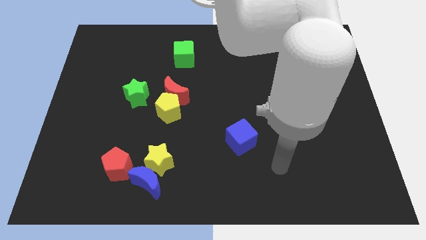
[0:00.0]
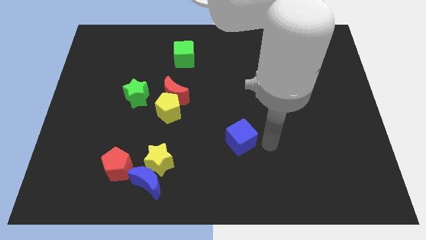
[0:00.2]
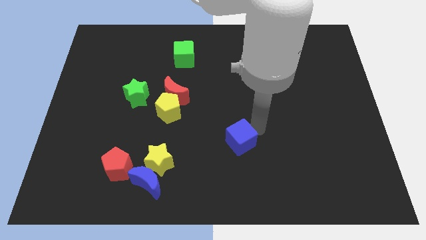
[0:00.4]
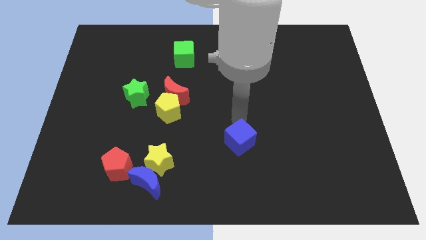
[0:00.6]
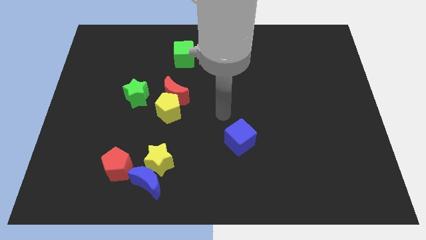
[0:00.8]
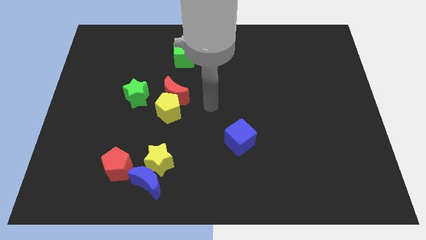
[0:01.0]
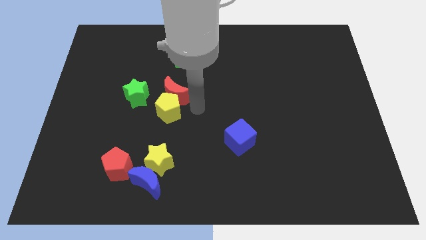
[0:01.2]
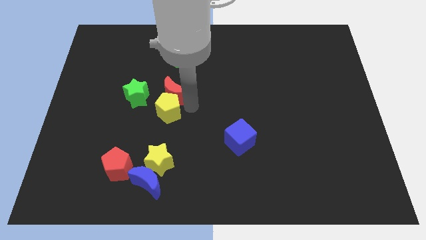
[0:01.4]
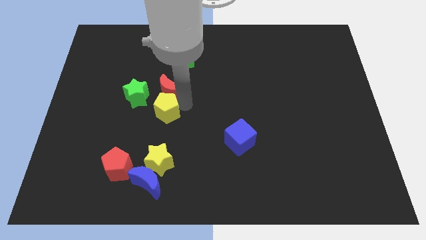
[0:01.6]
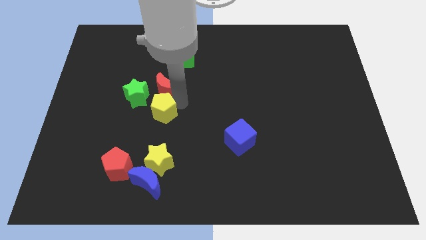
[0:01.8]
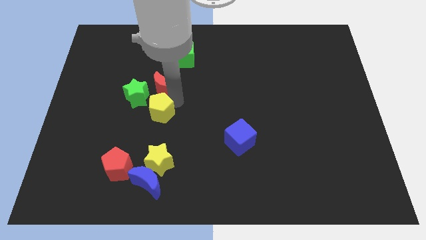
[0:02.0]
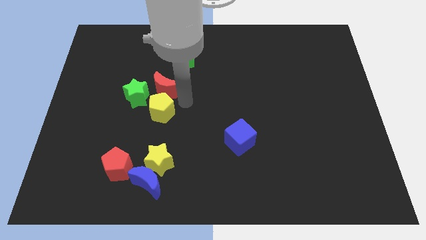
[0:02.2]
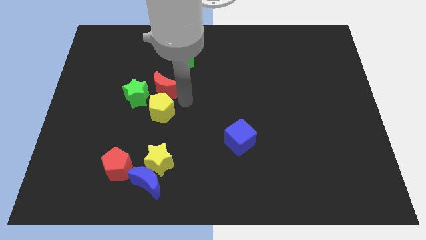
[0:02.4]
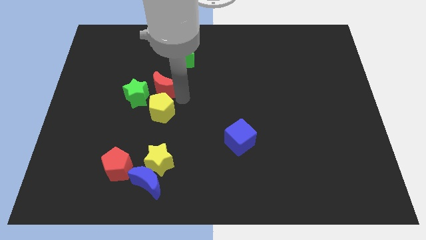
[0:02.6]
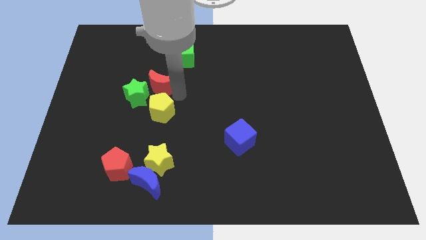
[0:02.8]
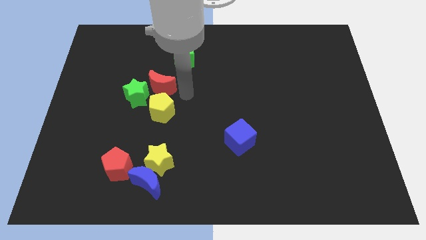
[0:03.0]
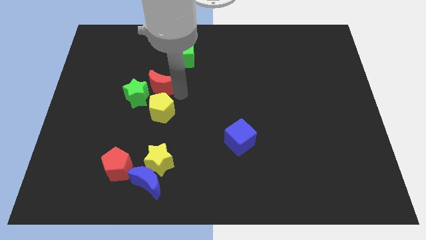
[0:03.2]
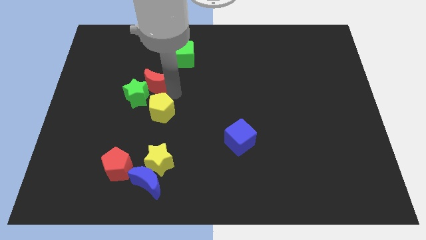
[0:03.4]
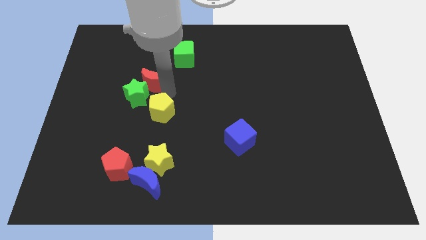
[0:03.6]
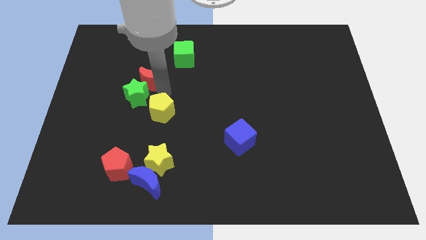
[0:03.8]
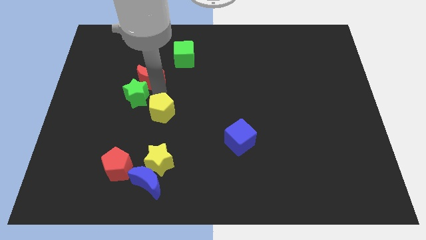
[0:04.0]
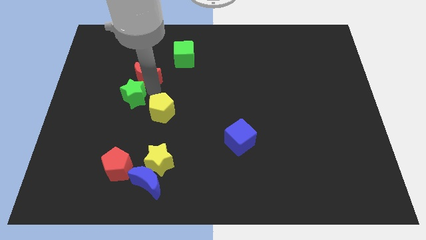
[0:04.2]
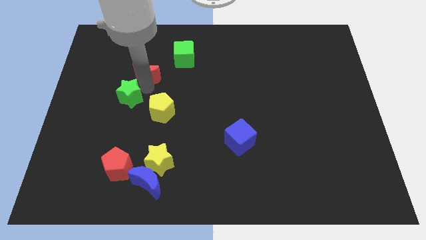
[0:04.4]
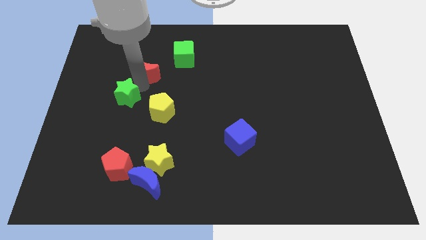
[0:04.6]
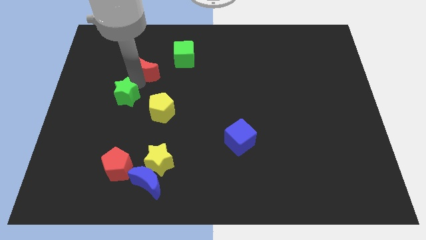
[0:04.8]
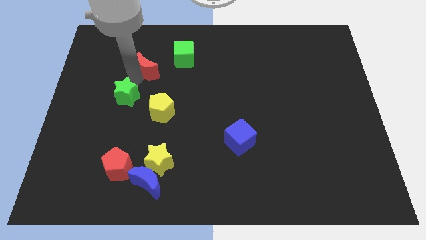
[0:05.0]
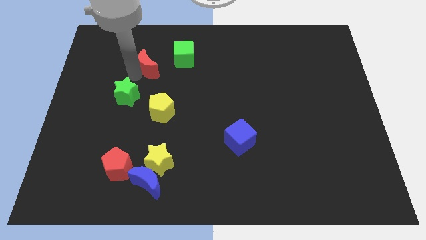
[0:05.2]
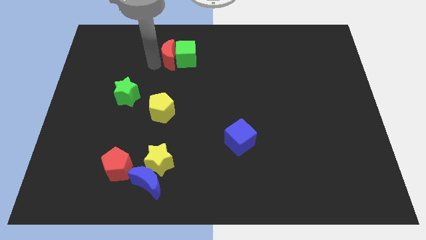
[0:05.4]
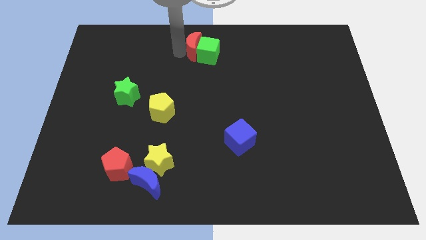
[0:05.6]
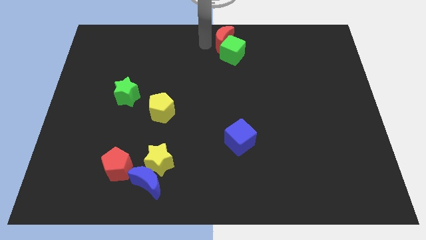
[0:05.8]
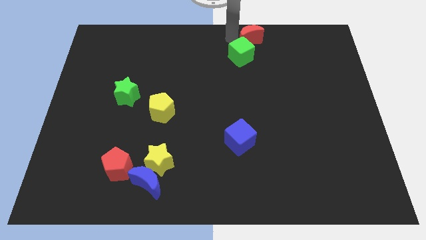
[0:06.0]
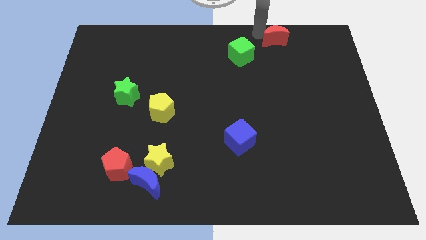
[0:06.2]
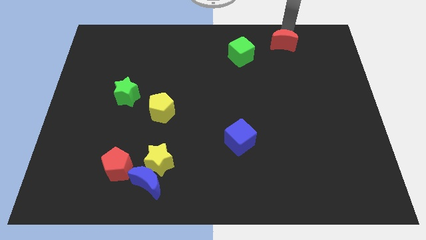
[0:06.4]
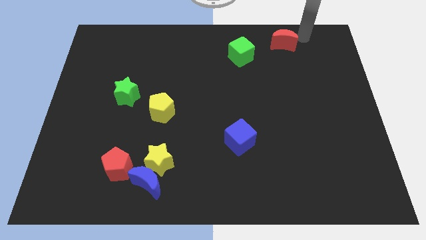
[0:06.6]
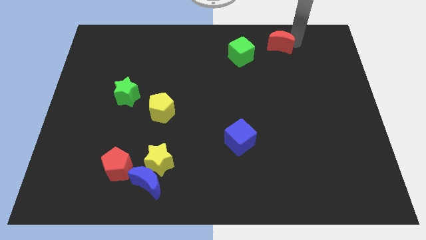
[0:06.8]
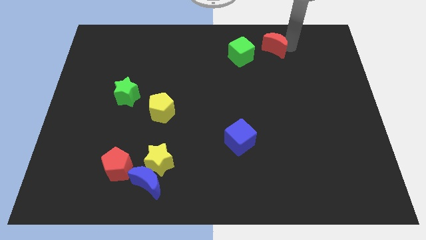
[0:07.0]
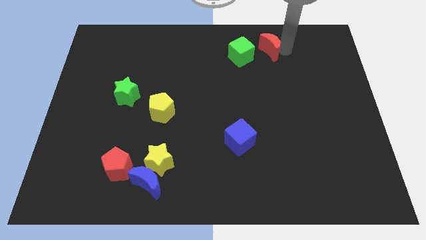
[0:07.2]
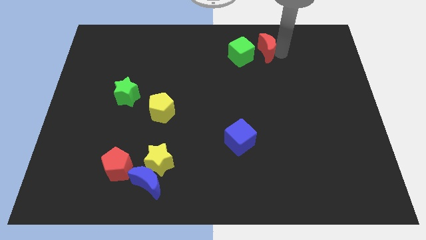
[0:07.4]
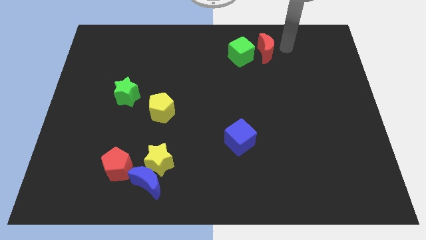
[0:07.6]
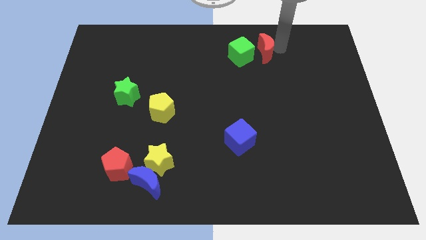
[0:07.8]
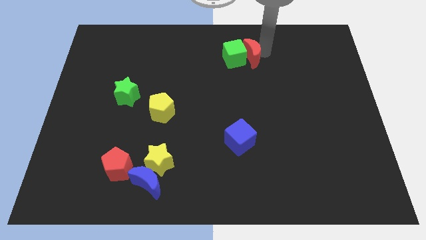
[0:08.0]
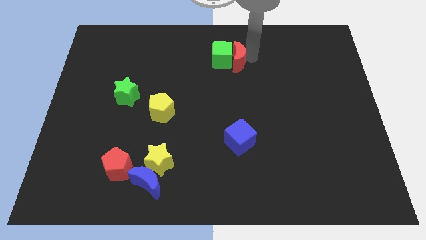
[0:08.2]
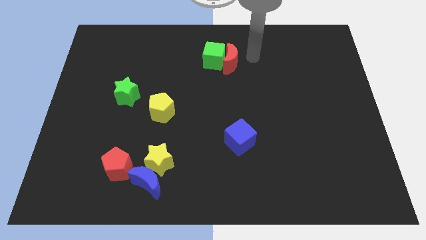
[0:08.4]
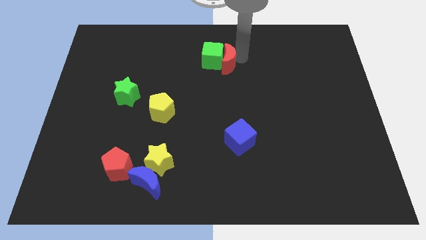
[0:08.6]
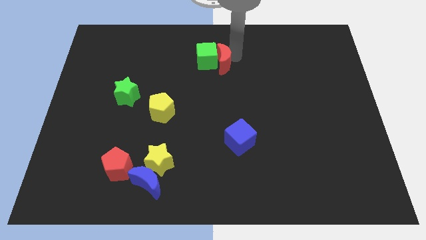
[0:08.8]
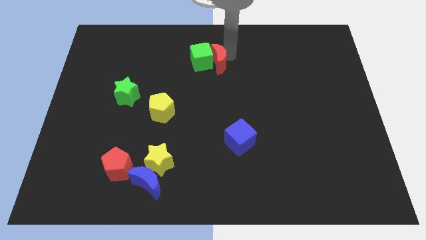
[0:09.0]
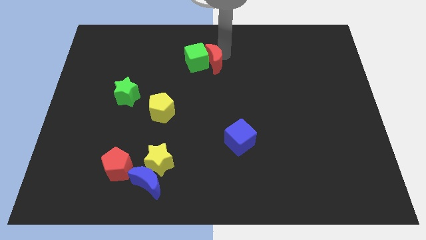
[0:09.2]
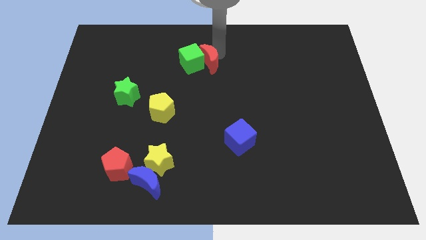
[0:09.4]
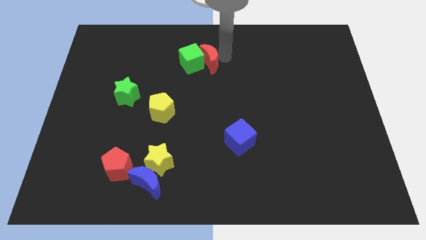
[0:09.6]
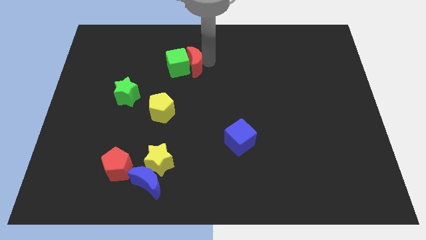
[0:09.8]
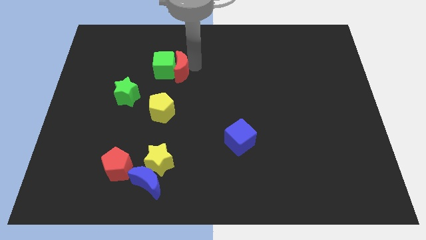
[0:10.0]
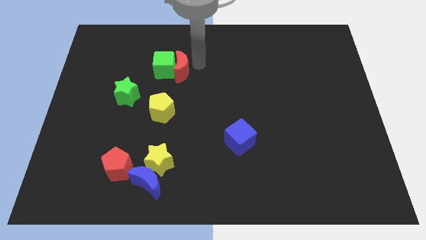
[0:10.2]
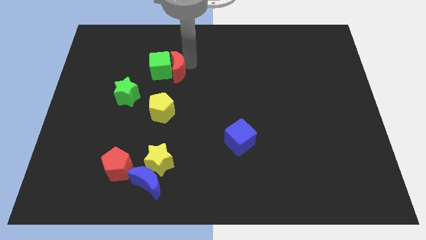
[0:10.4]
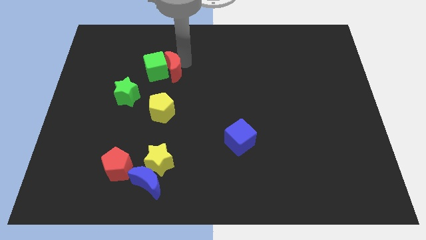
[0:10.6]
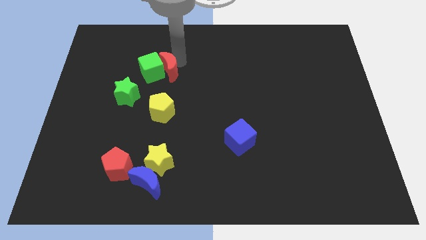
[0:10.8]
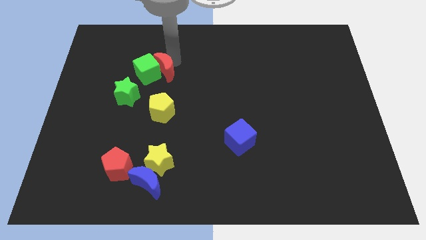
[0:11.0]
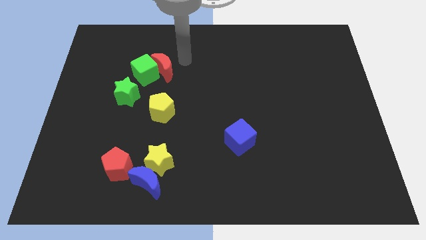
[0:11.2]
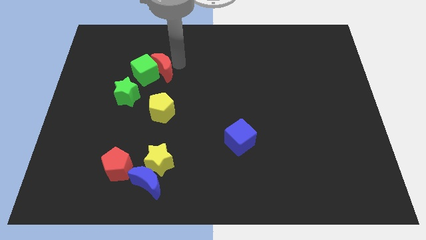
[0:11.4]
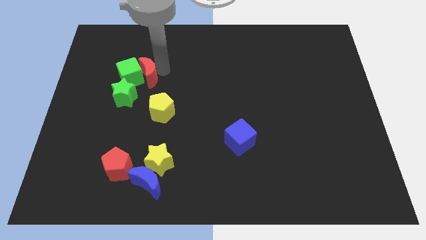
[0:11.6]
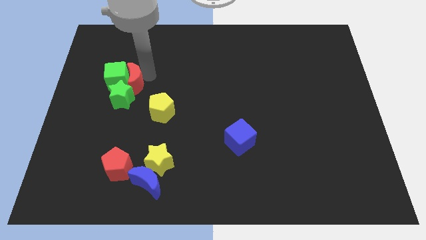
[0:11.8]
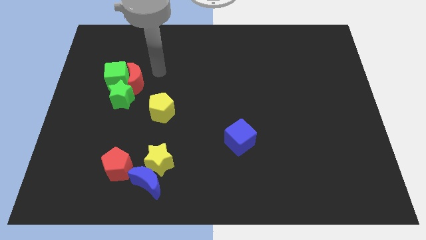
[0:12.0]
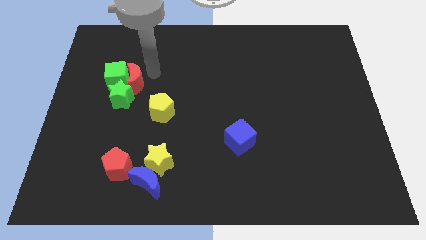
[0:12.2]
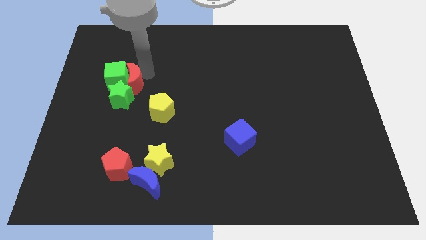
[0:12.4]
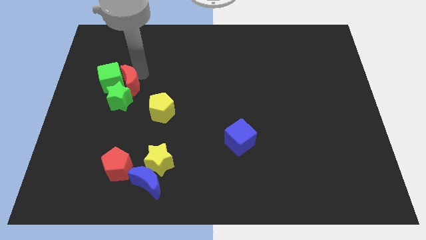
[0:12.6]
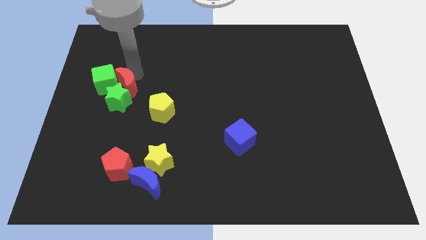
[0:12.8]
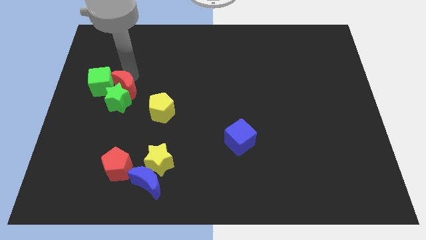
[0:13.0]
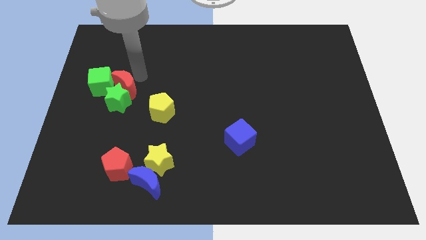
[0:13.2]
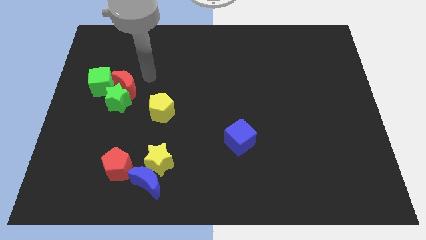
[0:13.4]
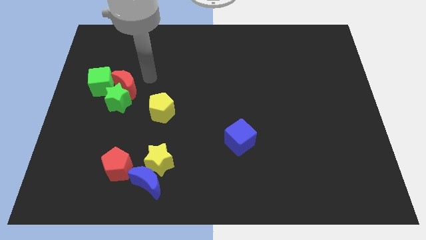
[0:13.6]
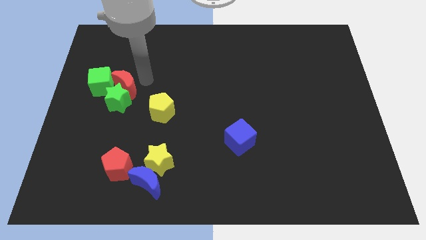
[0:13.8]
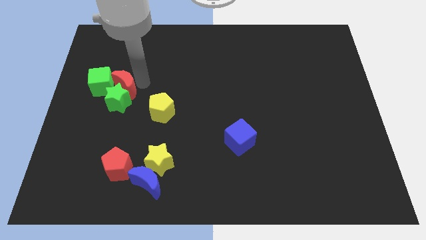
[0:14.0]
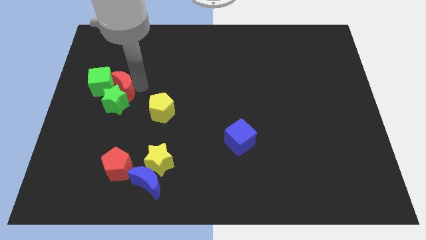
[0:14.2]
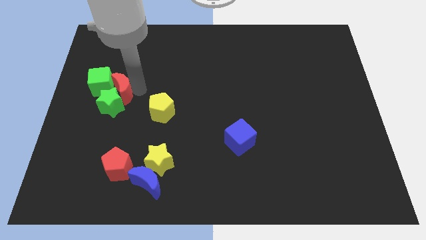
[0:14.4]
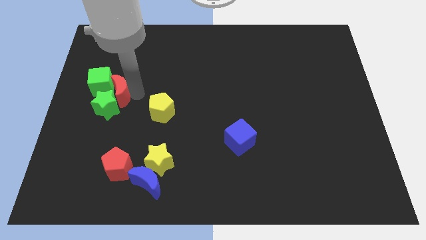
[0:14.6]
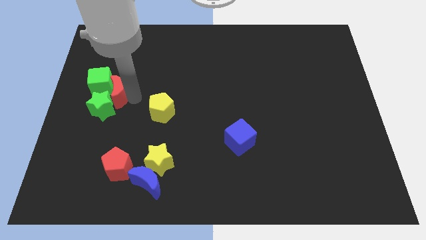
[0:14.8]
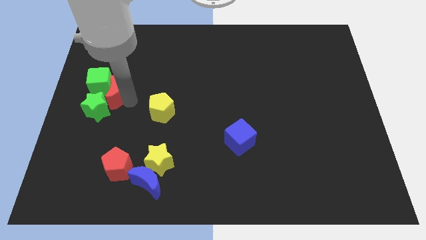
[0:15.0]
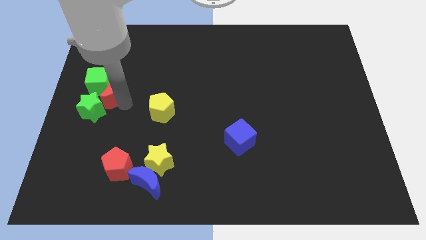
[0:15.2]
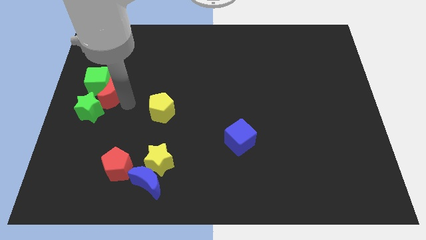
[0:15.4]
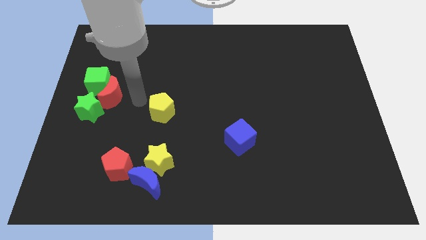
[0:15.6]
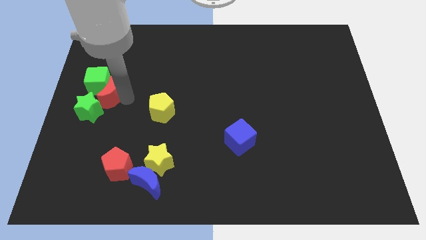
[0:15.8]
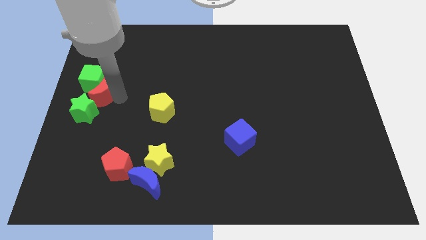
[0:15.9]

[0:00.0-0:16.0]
slide the red moon to the center left
